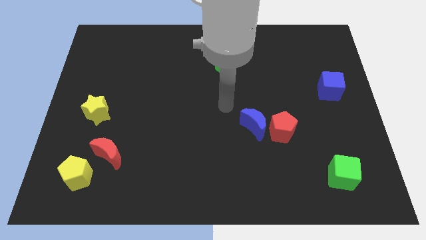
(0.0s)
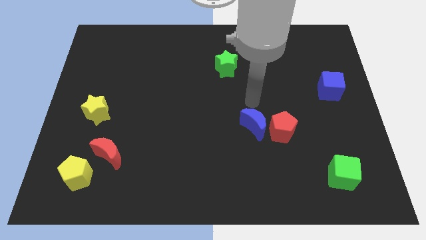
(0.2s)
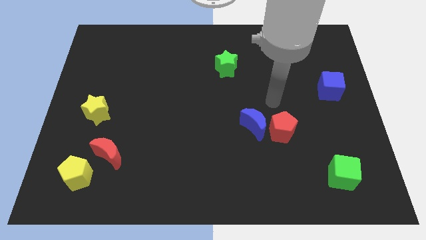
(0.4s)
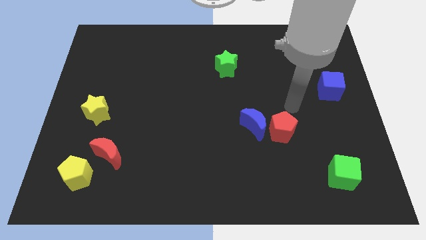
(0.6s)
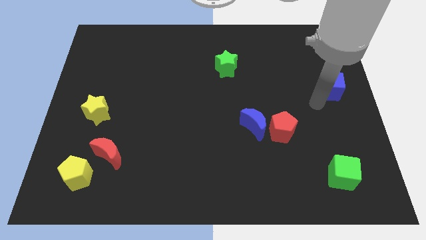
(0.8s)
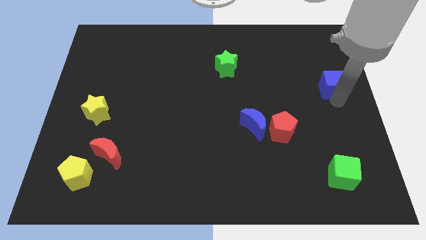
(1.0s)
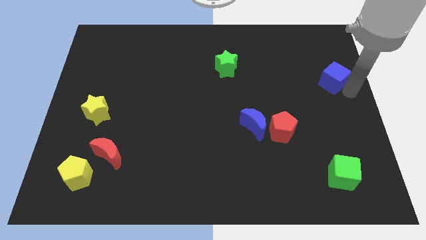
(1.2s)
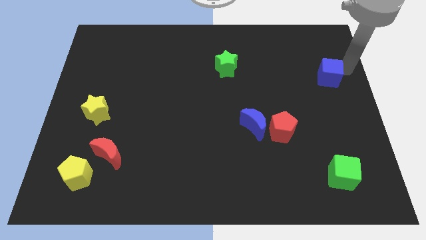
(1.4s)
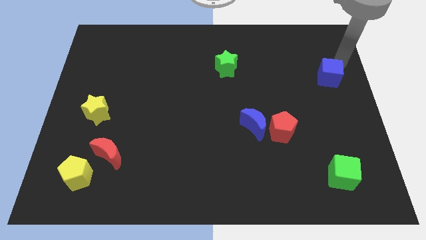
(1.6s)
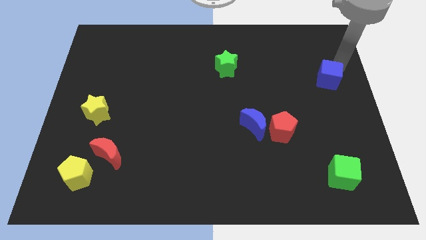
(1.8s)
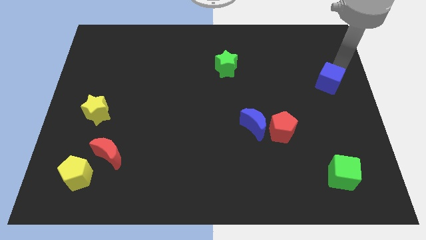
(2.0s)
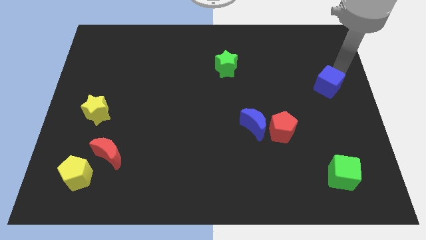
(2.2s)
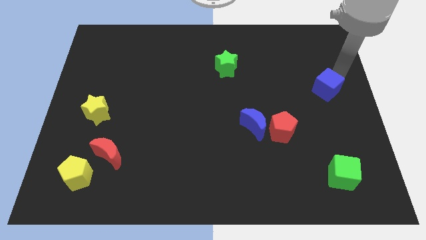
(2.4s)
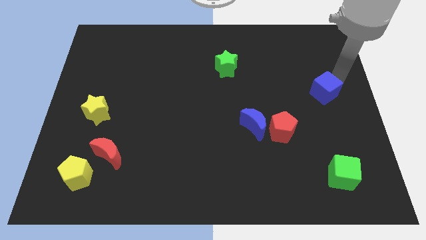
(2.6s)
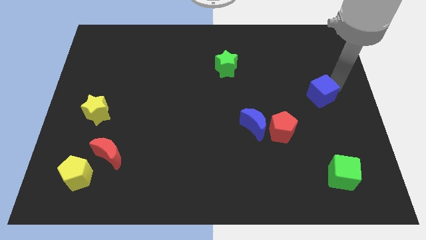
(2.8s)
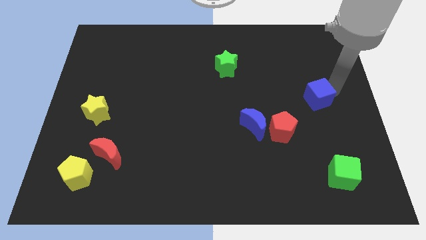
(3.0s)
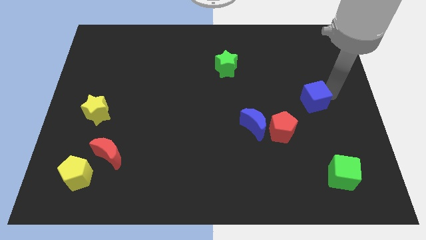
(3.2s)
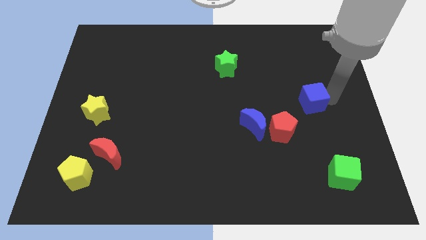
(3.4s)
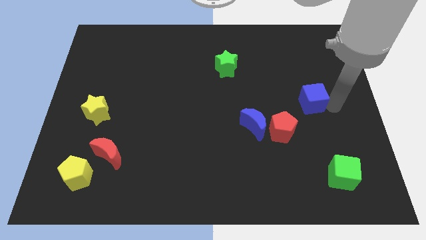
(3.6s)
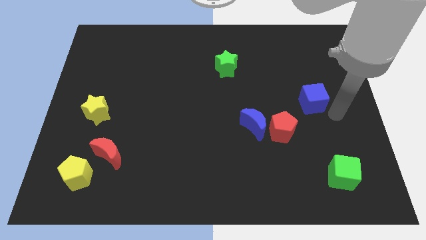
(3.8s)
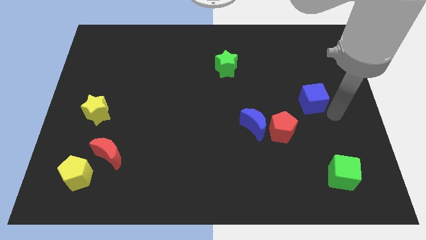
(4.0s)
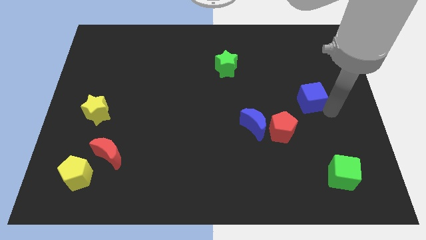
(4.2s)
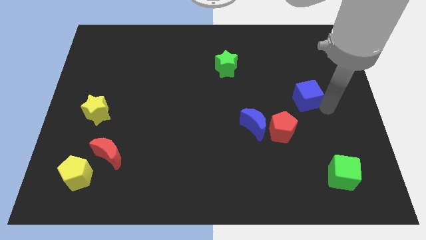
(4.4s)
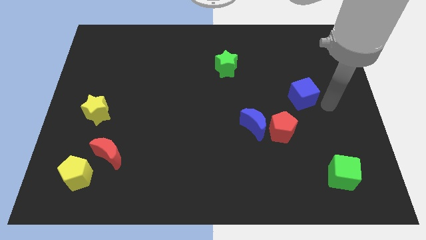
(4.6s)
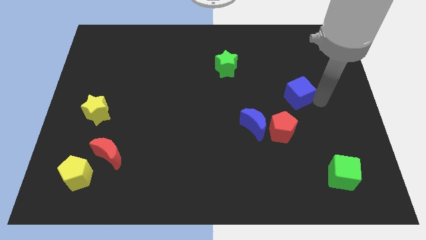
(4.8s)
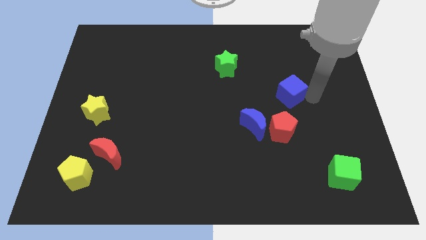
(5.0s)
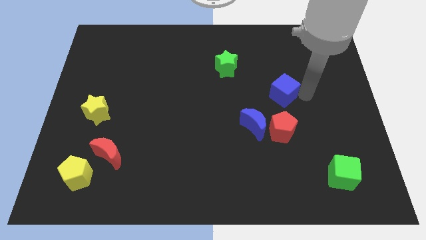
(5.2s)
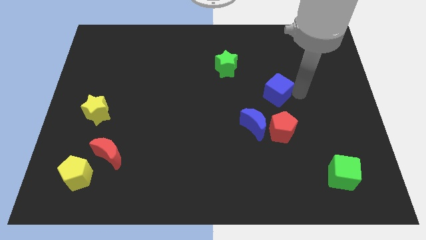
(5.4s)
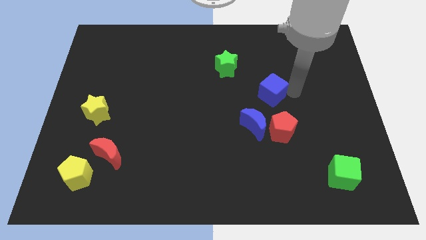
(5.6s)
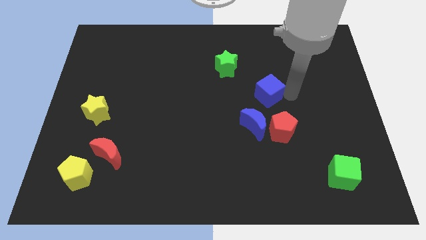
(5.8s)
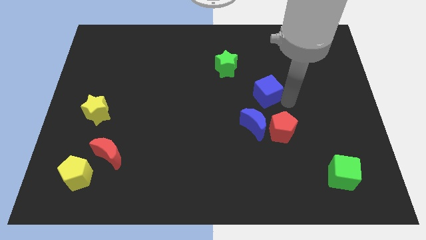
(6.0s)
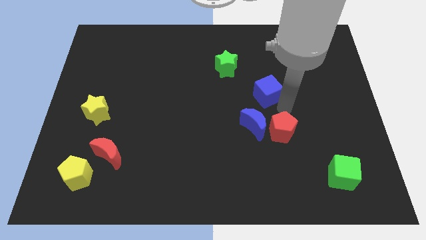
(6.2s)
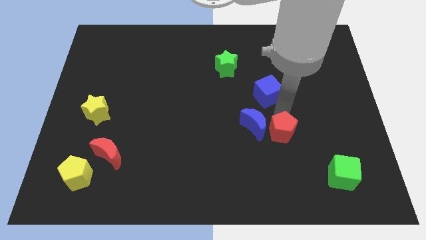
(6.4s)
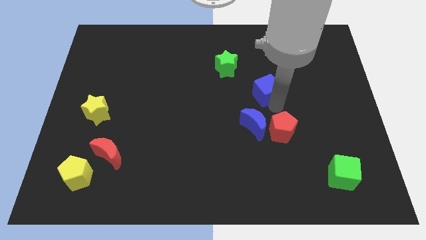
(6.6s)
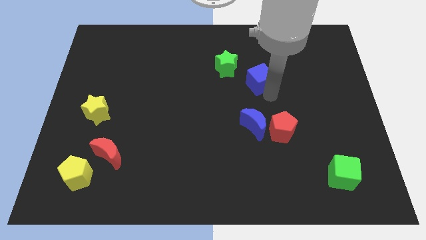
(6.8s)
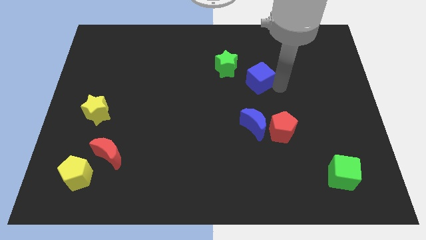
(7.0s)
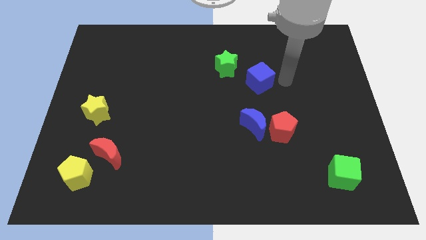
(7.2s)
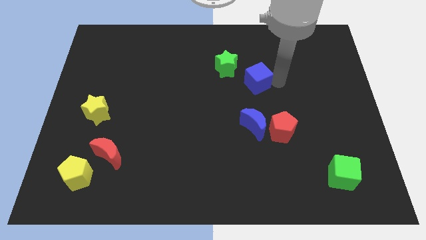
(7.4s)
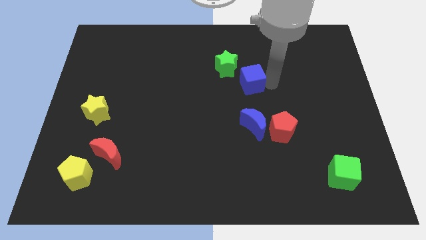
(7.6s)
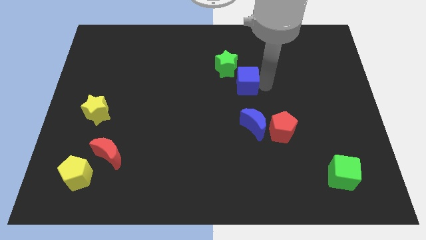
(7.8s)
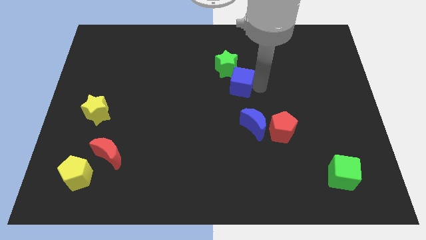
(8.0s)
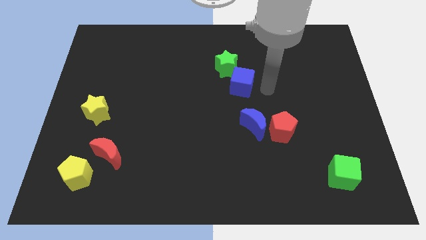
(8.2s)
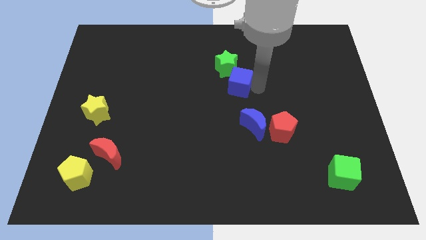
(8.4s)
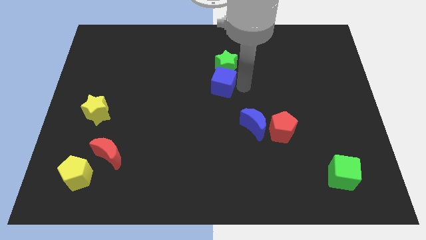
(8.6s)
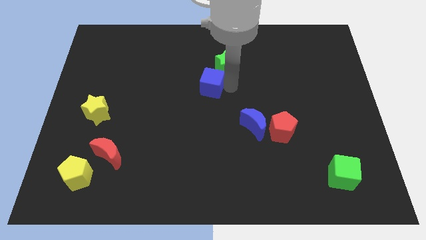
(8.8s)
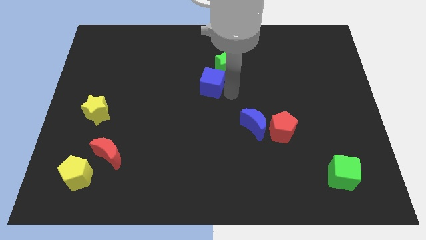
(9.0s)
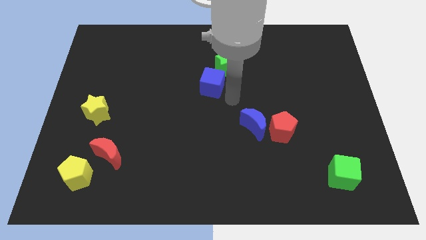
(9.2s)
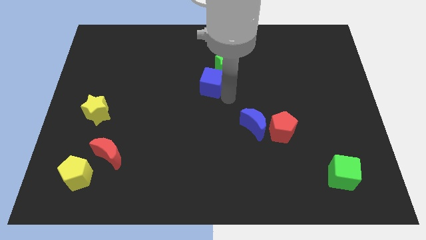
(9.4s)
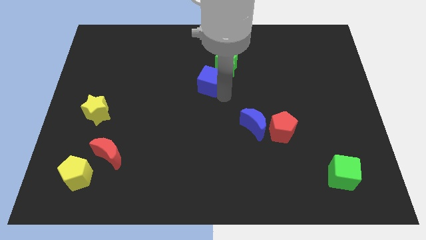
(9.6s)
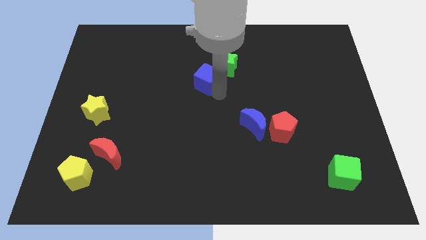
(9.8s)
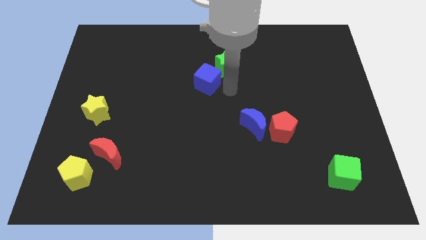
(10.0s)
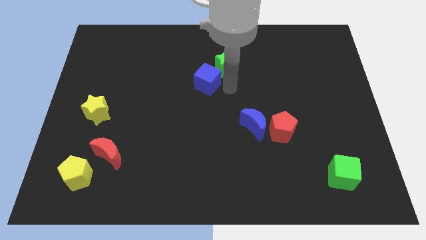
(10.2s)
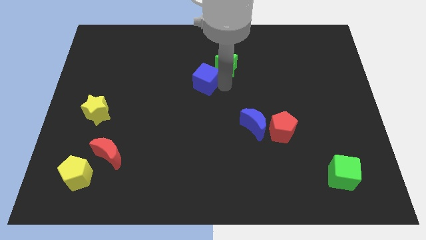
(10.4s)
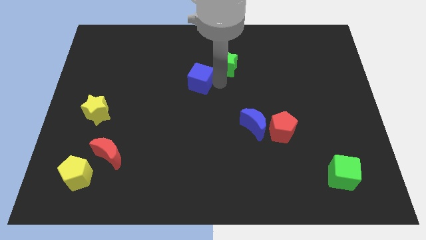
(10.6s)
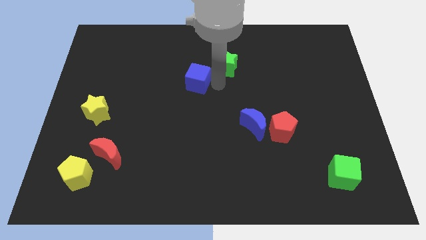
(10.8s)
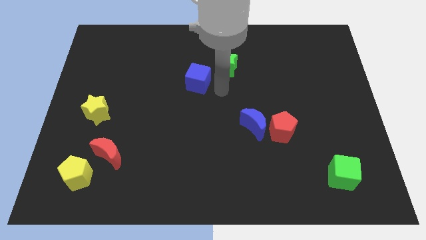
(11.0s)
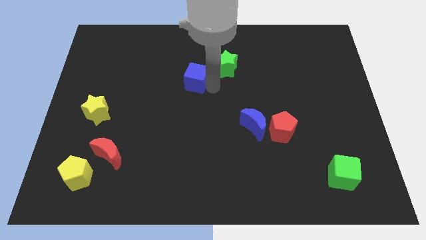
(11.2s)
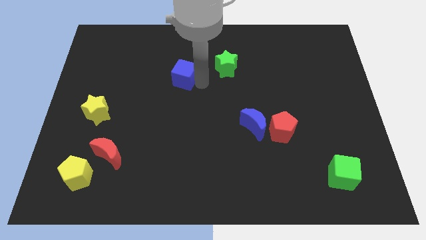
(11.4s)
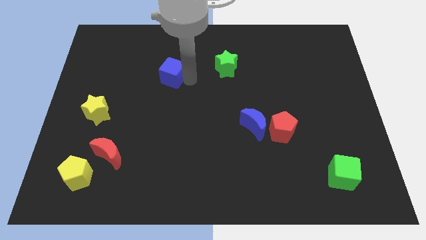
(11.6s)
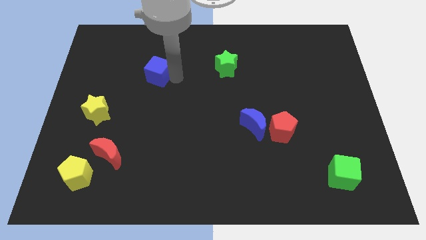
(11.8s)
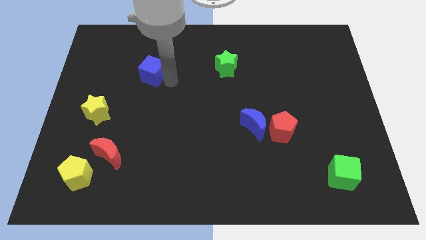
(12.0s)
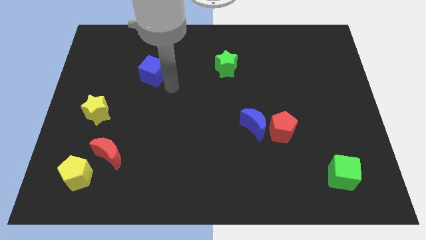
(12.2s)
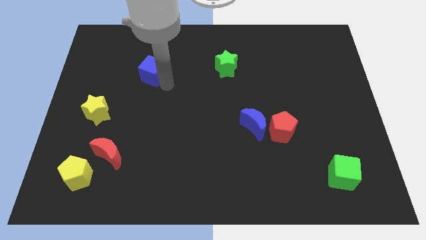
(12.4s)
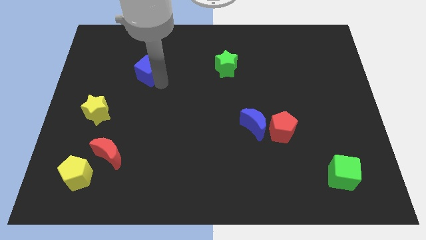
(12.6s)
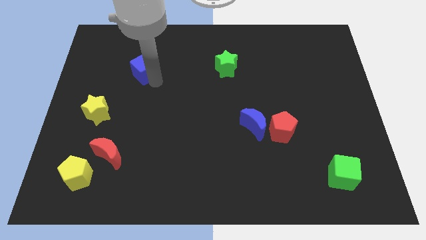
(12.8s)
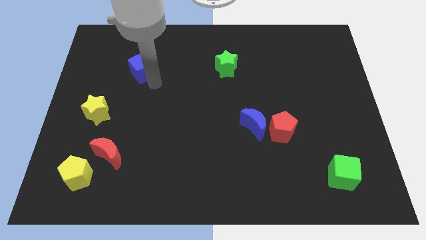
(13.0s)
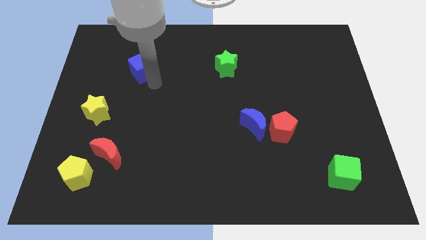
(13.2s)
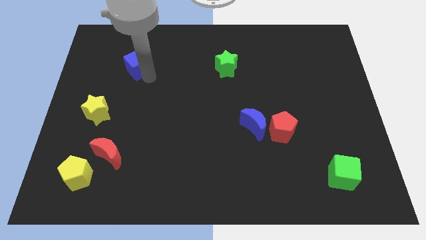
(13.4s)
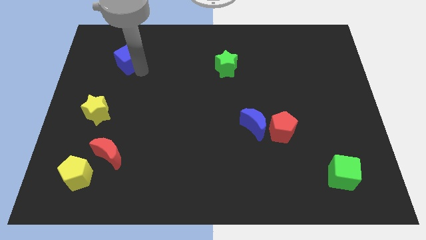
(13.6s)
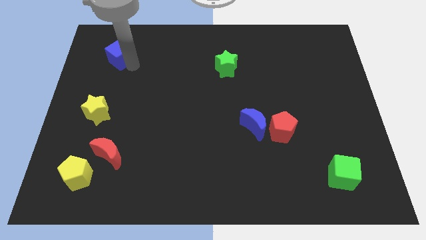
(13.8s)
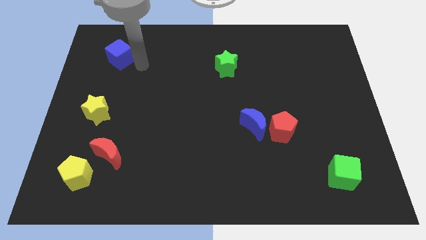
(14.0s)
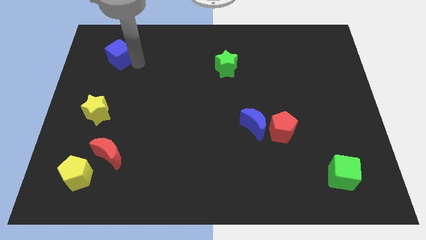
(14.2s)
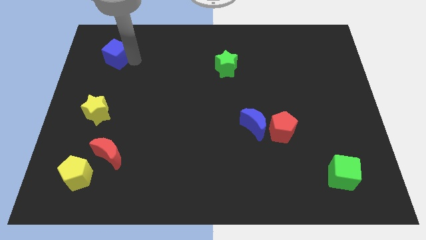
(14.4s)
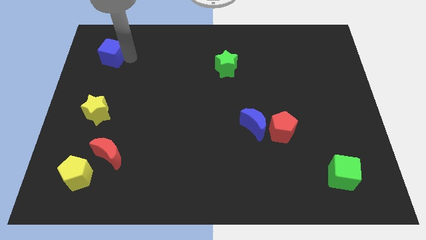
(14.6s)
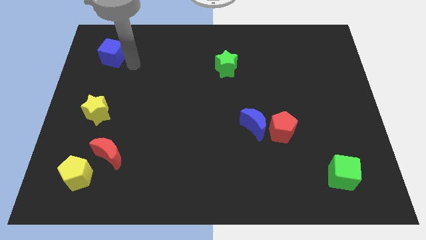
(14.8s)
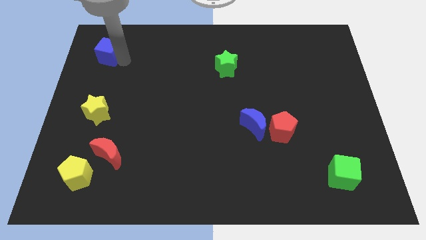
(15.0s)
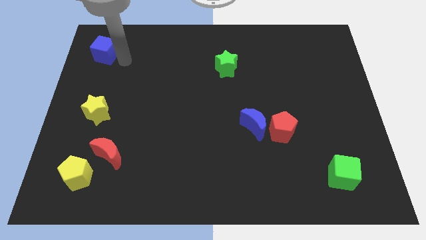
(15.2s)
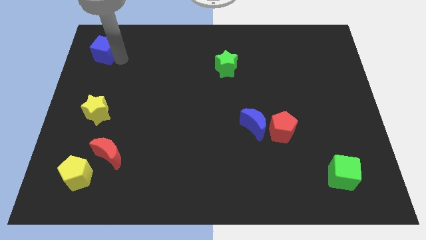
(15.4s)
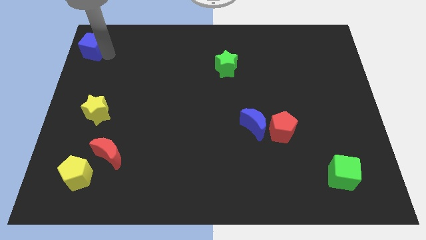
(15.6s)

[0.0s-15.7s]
move the blue cube to the top left
